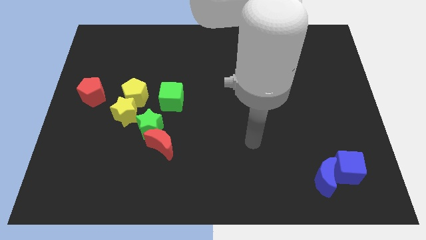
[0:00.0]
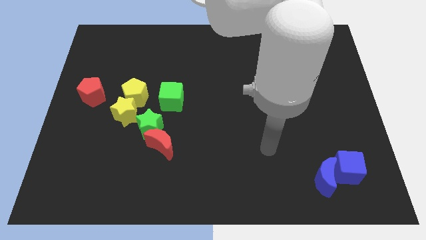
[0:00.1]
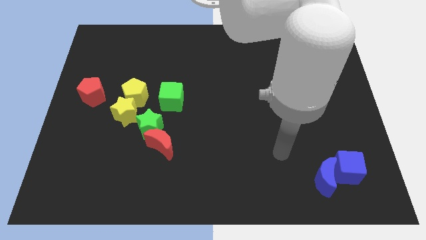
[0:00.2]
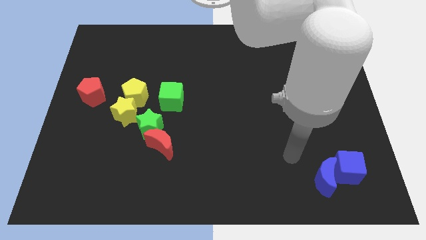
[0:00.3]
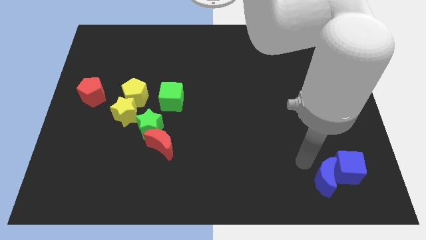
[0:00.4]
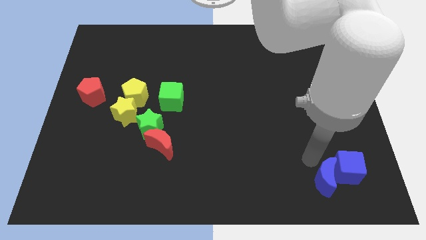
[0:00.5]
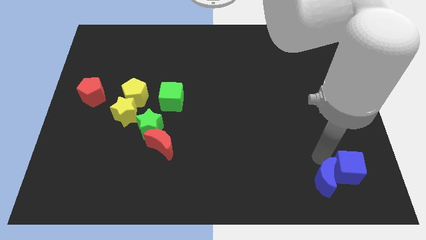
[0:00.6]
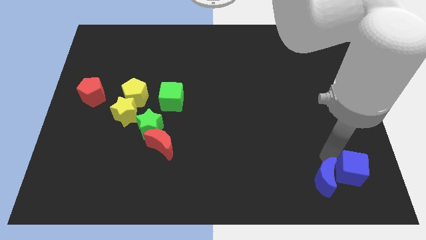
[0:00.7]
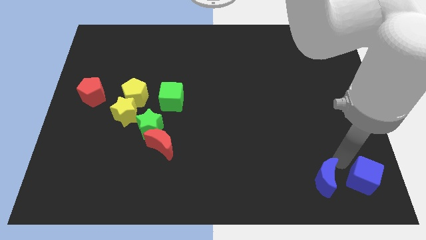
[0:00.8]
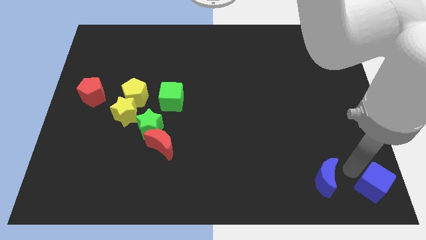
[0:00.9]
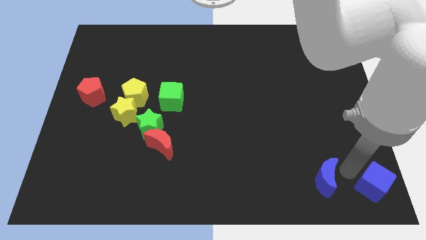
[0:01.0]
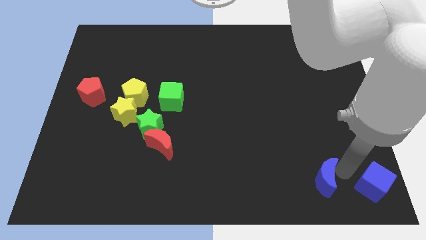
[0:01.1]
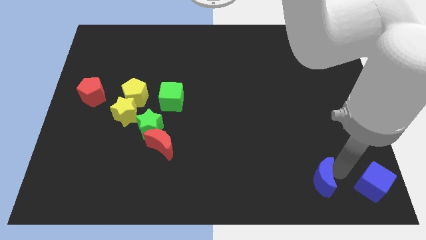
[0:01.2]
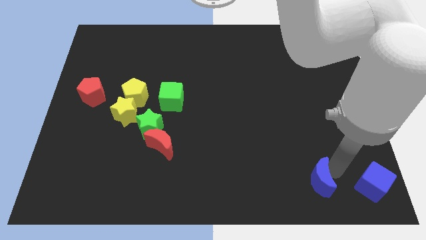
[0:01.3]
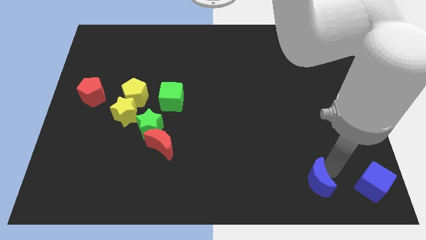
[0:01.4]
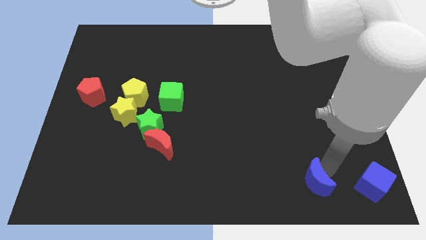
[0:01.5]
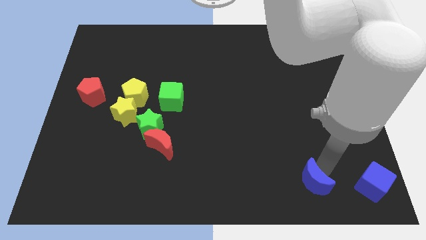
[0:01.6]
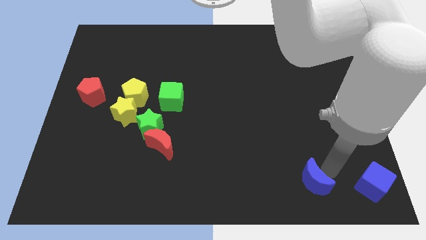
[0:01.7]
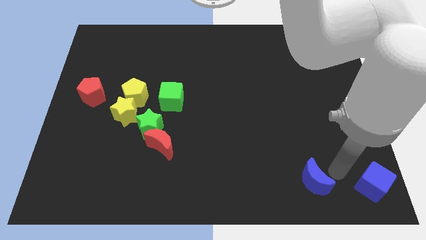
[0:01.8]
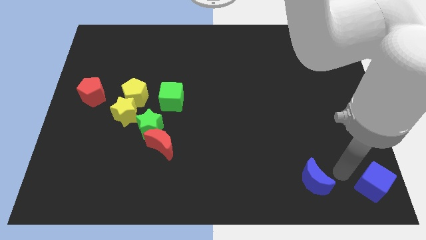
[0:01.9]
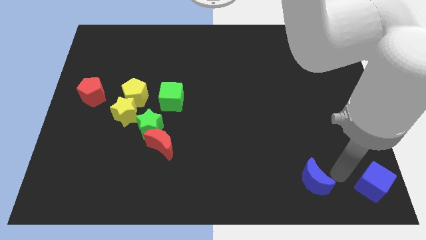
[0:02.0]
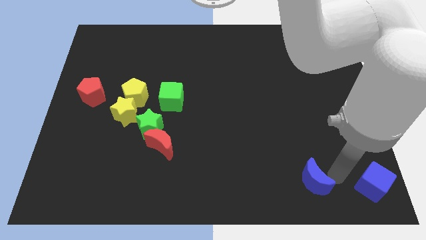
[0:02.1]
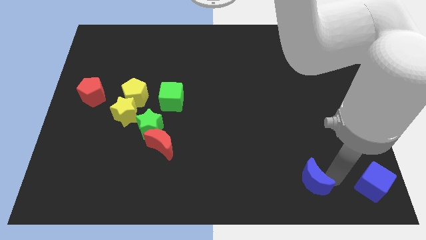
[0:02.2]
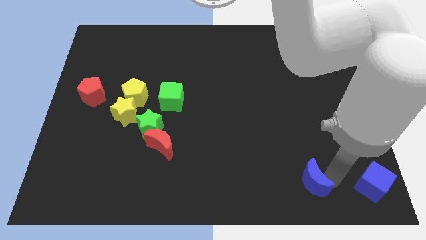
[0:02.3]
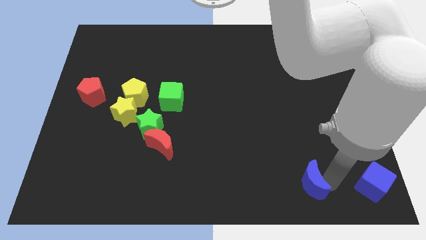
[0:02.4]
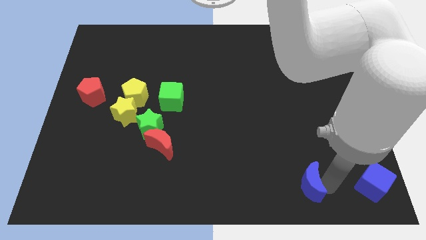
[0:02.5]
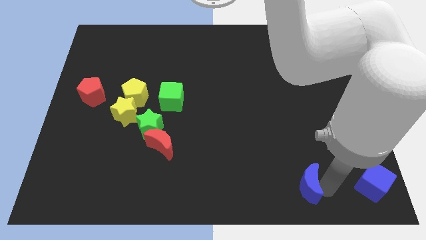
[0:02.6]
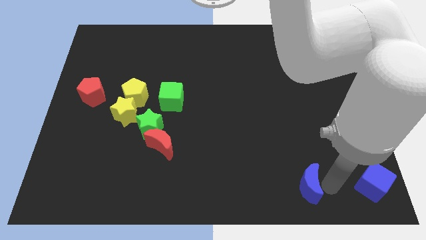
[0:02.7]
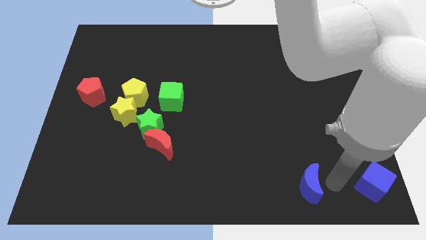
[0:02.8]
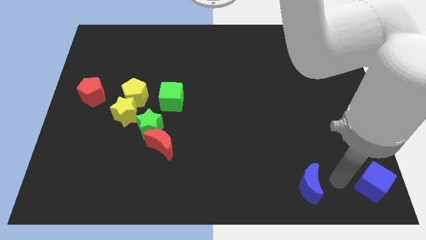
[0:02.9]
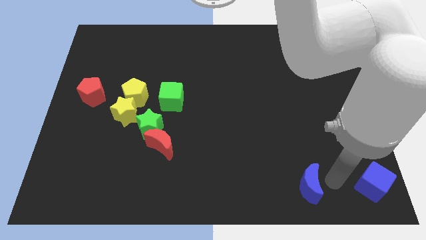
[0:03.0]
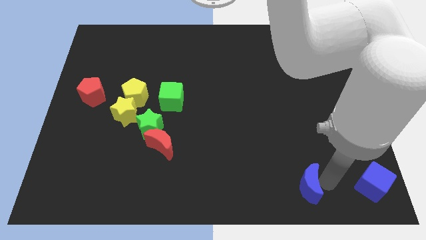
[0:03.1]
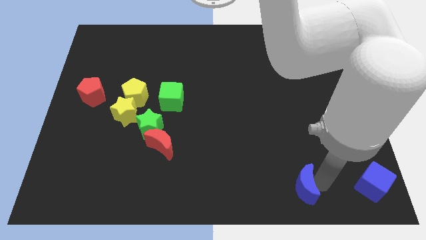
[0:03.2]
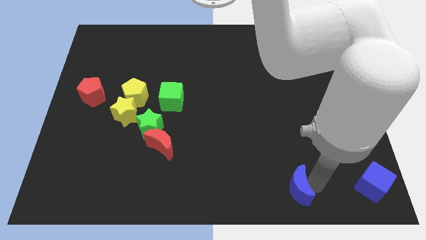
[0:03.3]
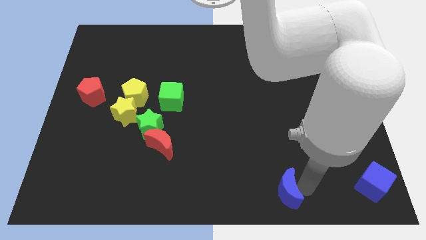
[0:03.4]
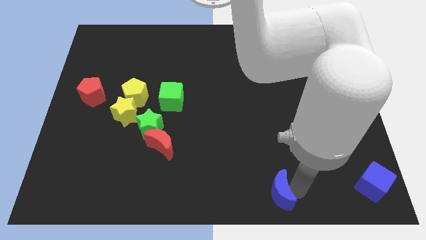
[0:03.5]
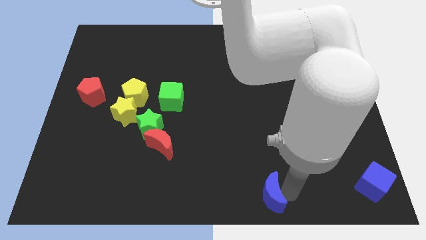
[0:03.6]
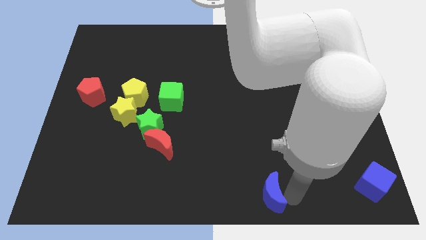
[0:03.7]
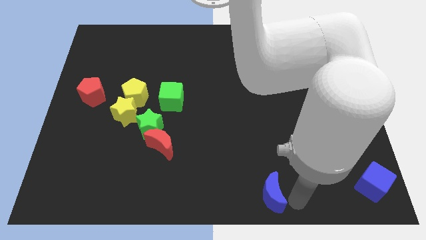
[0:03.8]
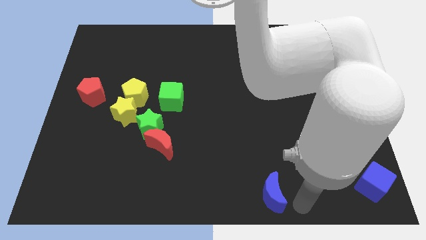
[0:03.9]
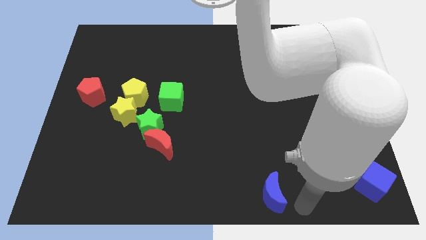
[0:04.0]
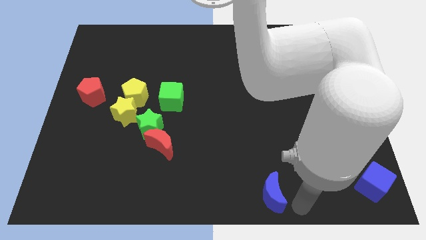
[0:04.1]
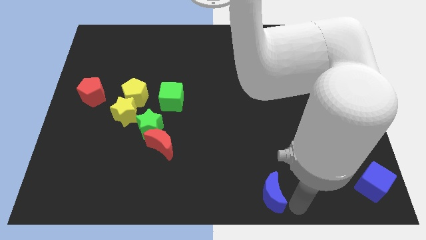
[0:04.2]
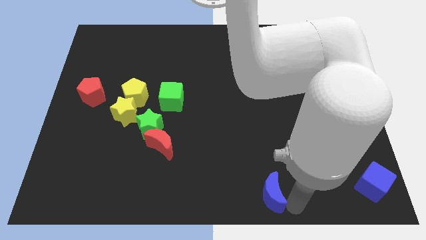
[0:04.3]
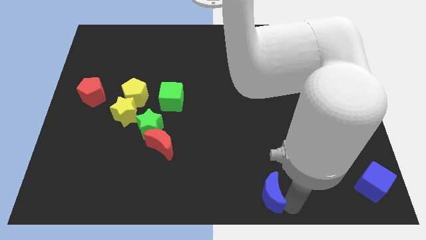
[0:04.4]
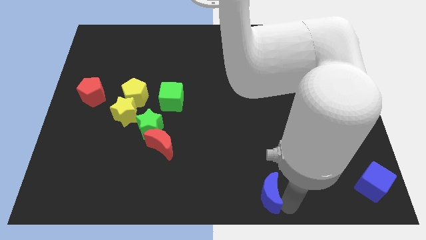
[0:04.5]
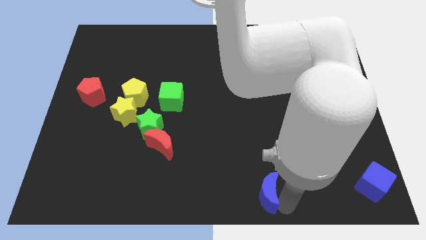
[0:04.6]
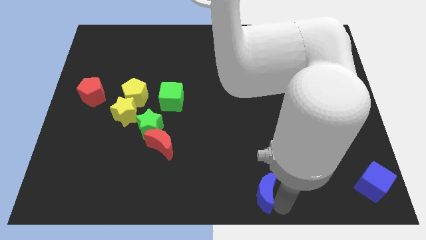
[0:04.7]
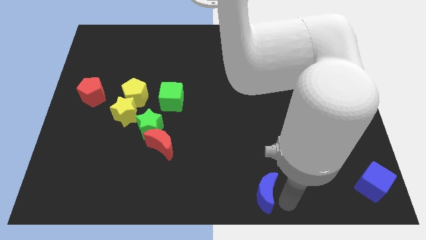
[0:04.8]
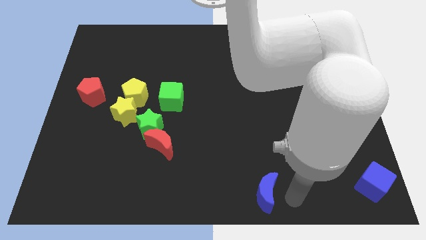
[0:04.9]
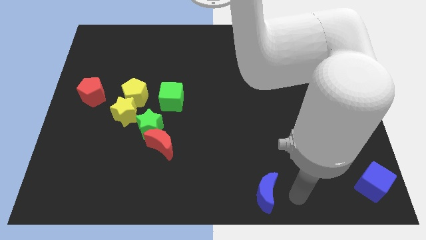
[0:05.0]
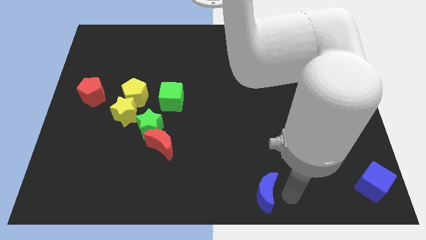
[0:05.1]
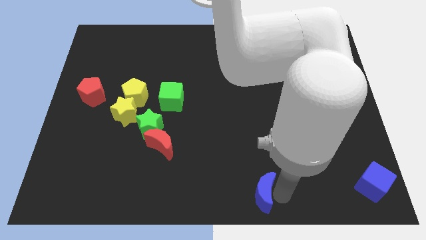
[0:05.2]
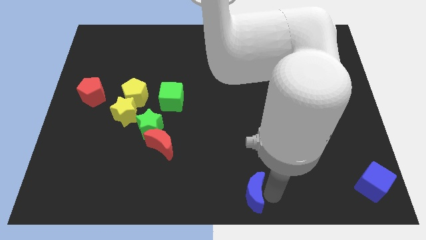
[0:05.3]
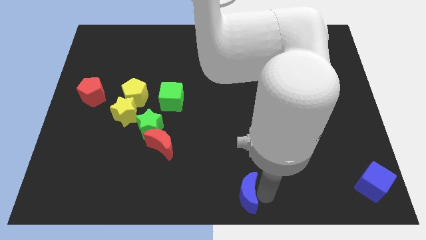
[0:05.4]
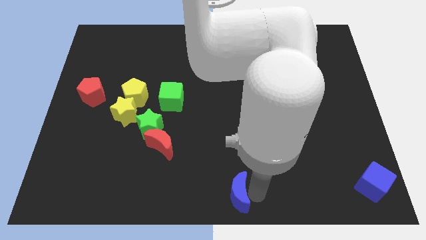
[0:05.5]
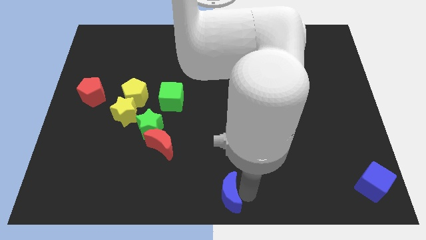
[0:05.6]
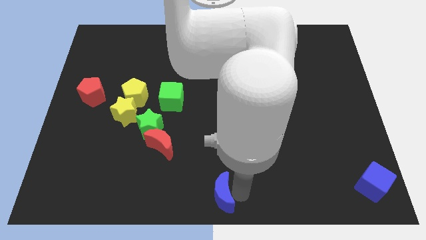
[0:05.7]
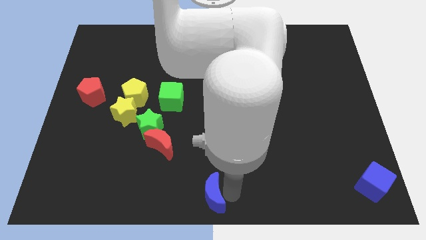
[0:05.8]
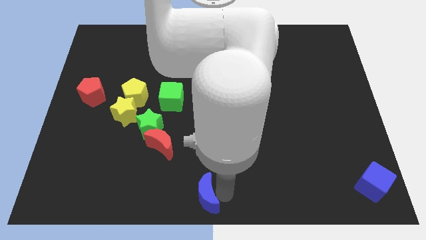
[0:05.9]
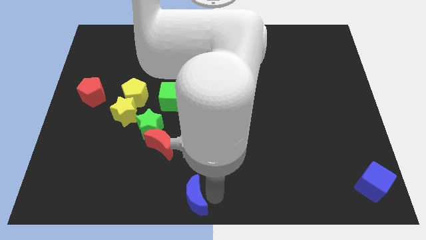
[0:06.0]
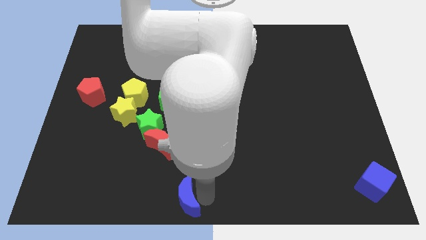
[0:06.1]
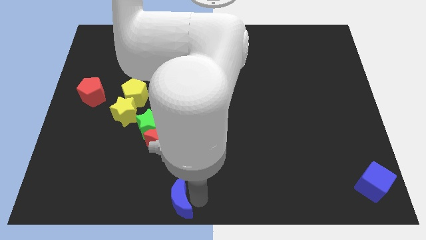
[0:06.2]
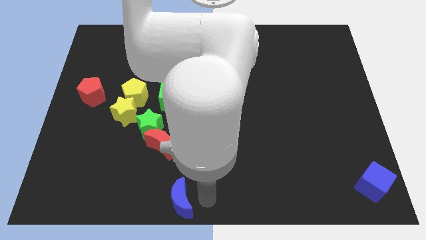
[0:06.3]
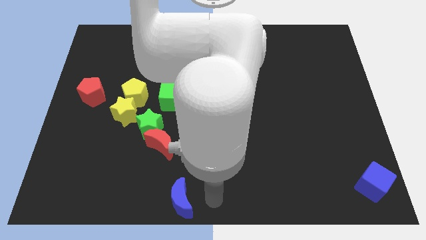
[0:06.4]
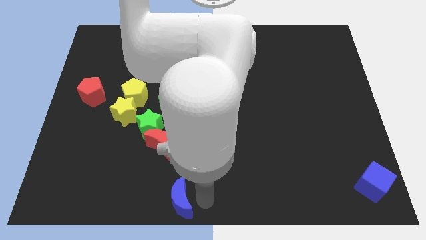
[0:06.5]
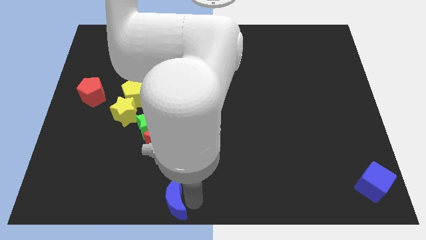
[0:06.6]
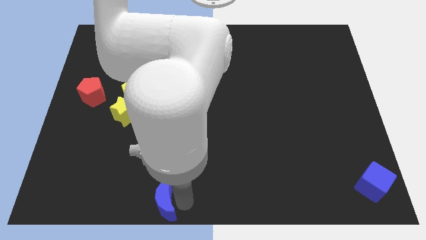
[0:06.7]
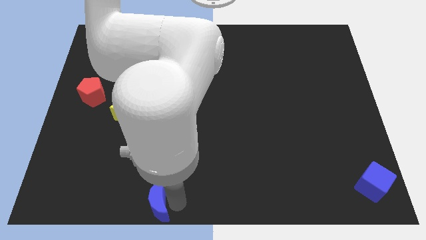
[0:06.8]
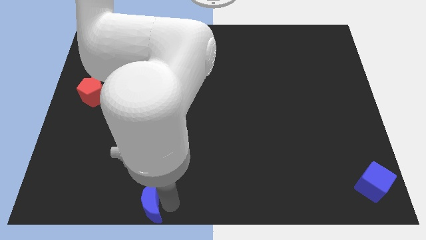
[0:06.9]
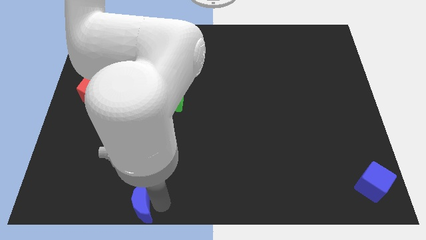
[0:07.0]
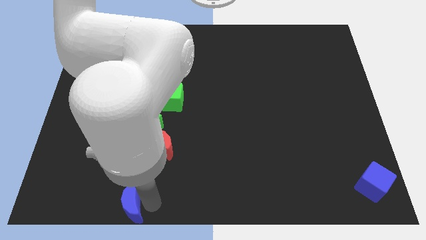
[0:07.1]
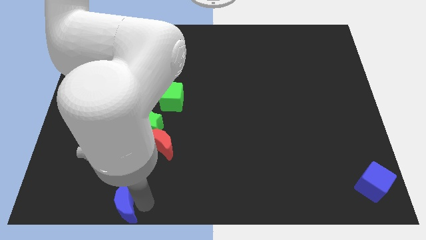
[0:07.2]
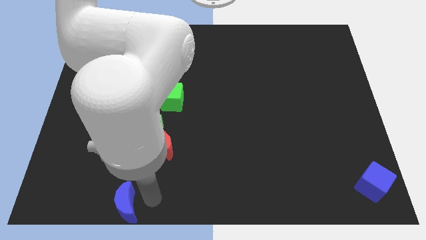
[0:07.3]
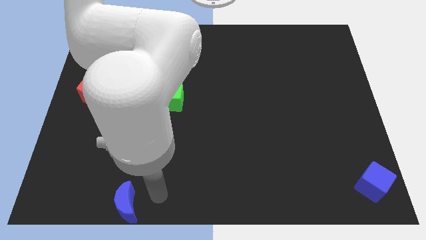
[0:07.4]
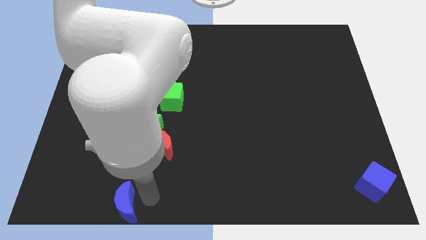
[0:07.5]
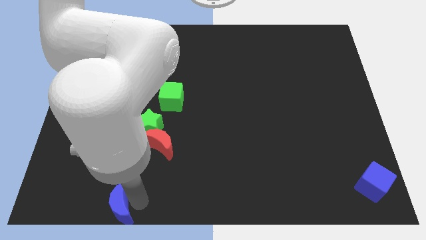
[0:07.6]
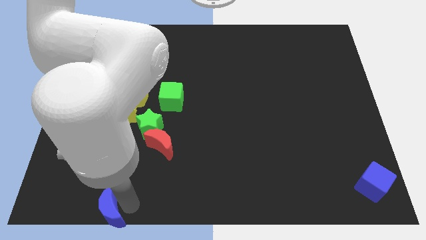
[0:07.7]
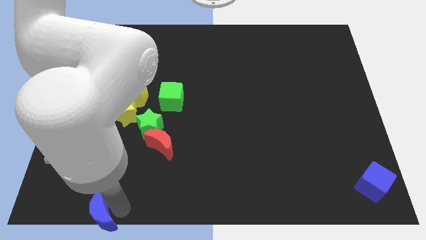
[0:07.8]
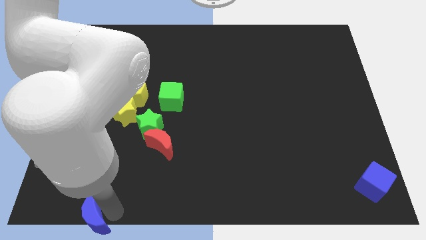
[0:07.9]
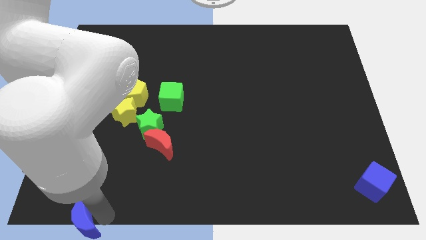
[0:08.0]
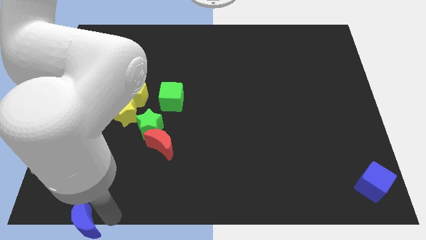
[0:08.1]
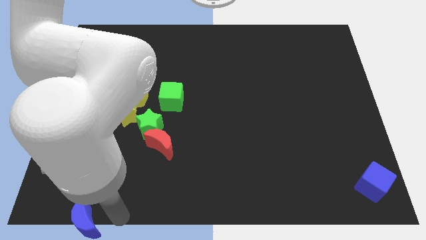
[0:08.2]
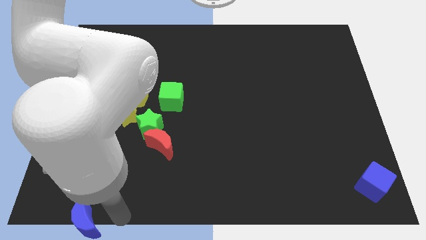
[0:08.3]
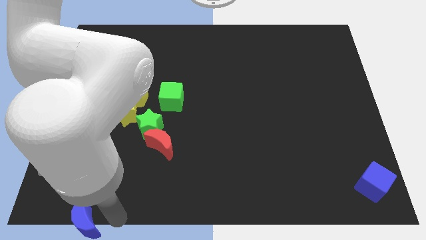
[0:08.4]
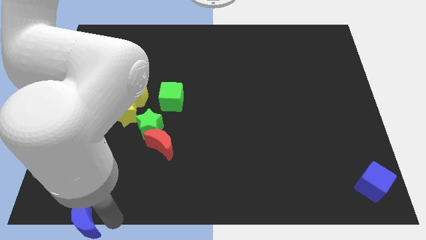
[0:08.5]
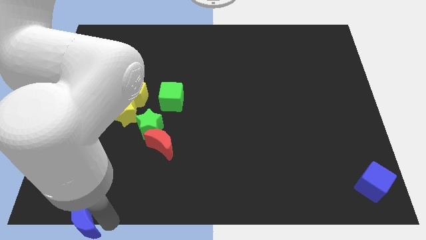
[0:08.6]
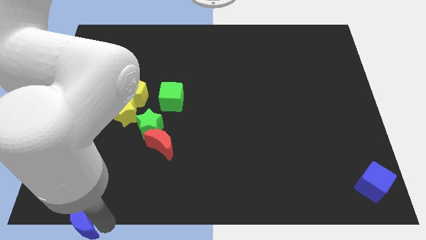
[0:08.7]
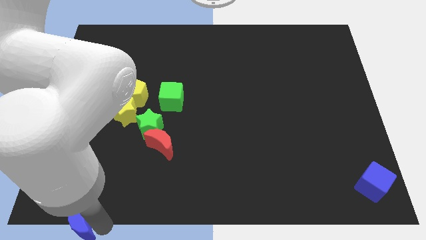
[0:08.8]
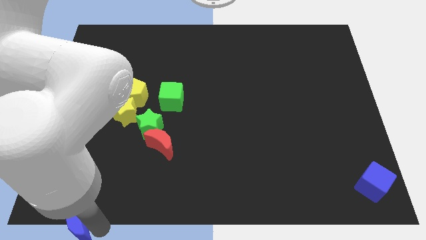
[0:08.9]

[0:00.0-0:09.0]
push the blue moon to the bottom left of the board
